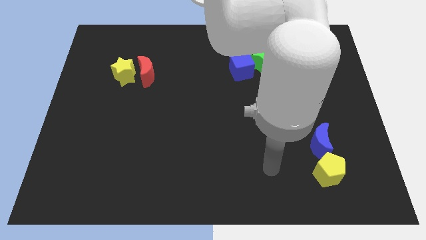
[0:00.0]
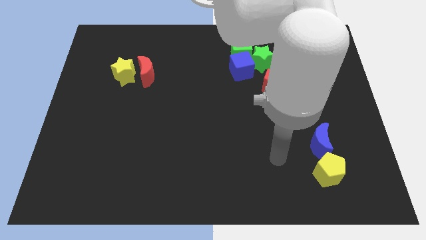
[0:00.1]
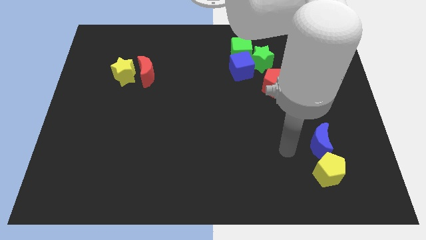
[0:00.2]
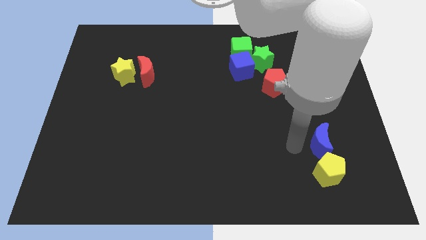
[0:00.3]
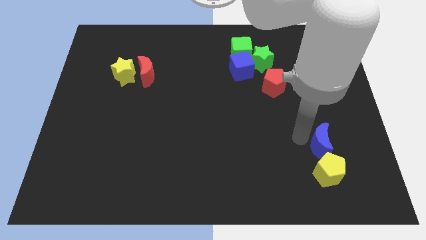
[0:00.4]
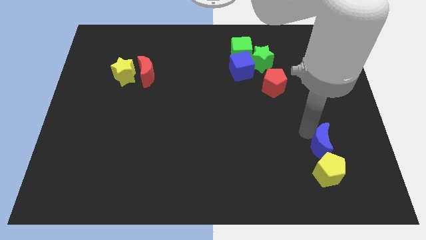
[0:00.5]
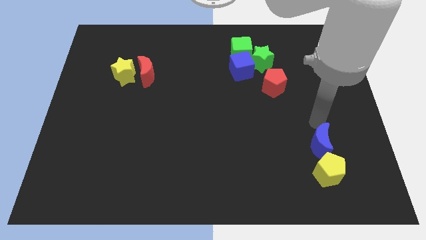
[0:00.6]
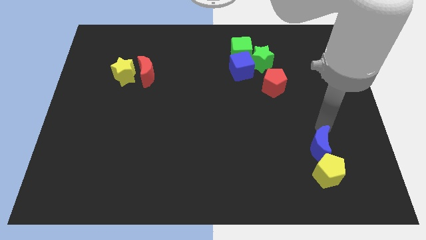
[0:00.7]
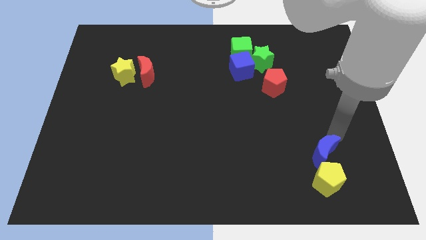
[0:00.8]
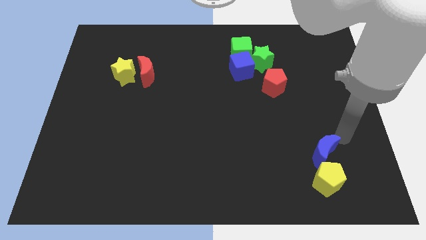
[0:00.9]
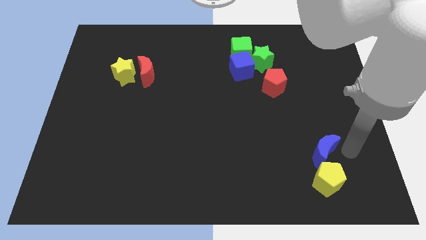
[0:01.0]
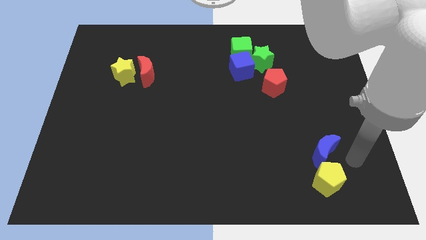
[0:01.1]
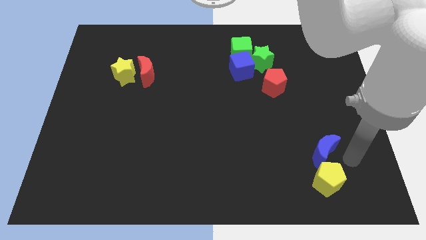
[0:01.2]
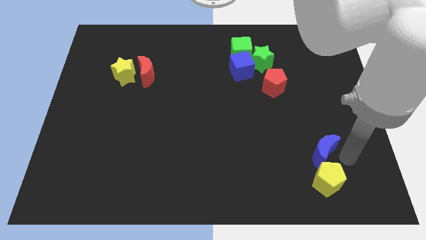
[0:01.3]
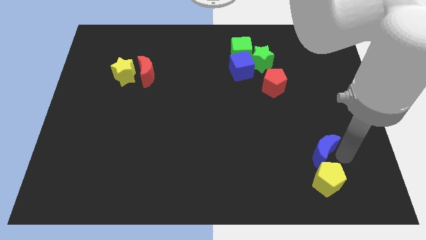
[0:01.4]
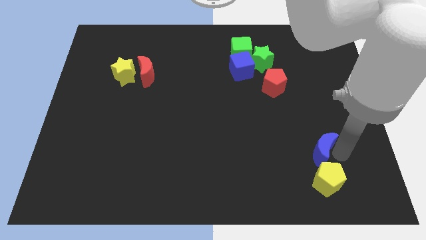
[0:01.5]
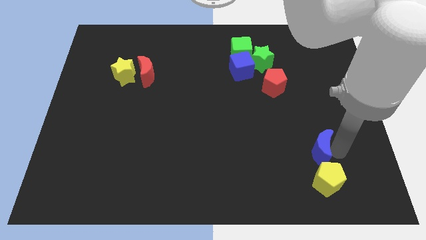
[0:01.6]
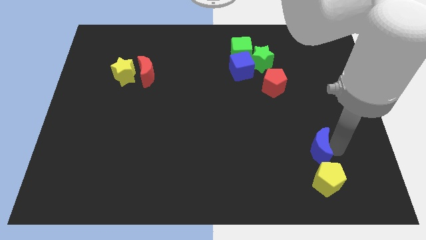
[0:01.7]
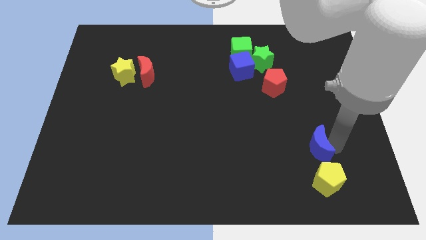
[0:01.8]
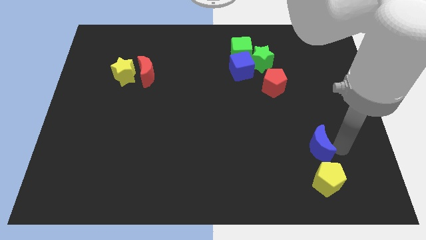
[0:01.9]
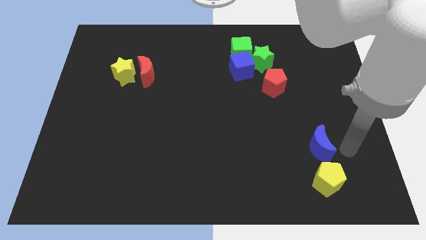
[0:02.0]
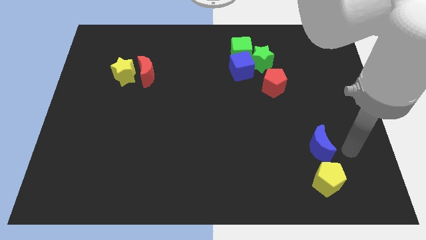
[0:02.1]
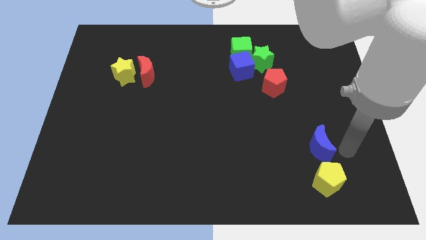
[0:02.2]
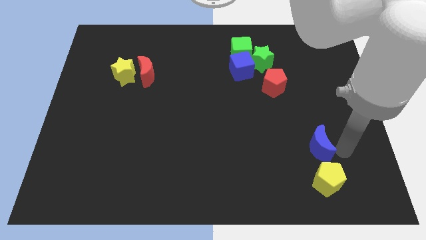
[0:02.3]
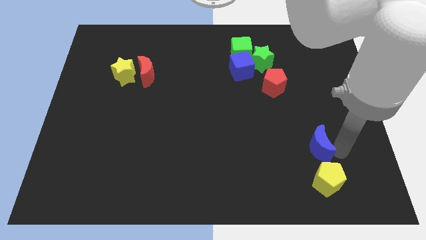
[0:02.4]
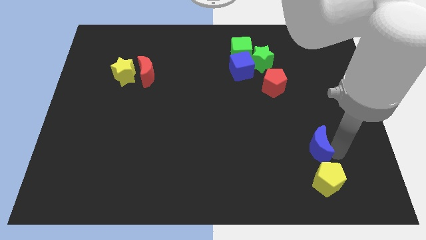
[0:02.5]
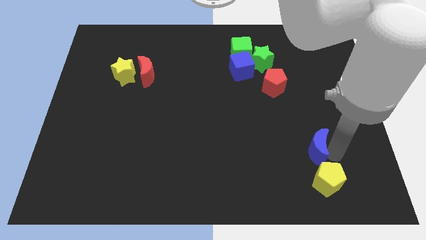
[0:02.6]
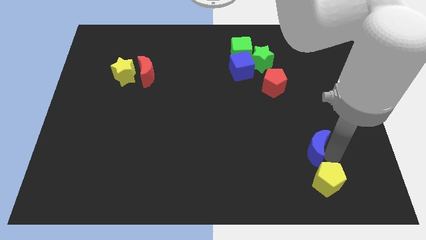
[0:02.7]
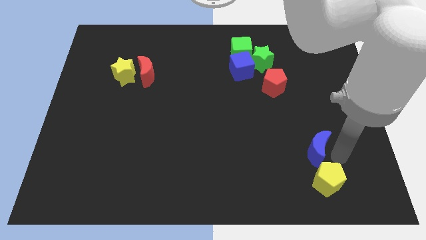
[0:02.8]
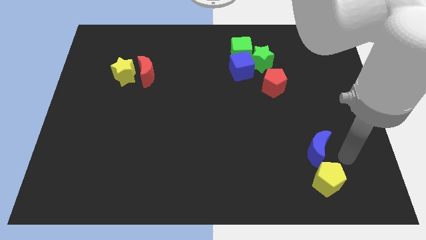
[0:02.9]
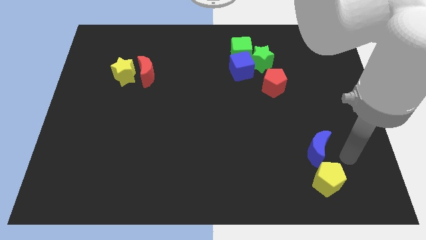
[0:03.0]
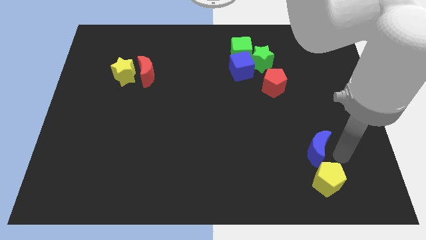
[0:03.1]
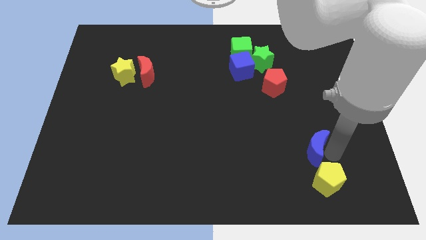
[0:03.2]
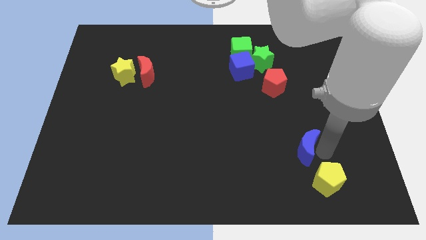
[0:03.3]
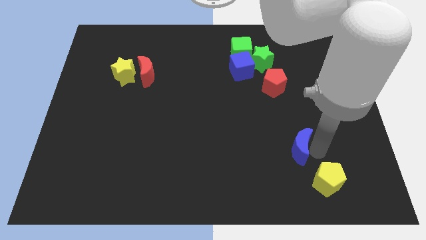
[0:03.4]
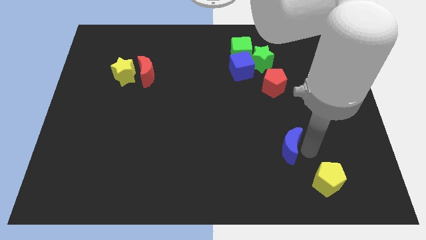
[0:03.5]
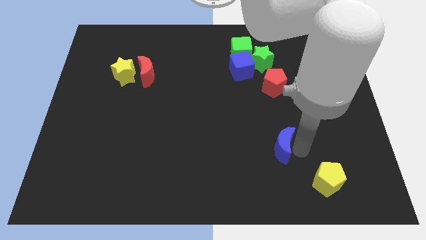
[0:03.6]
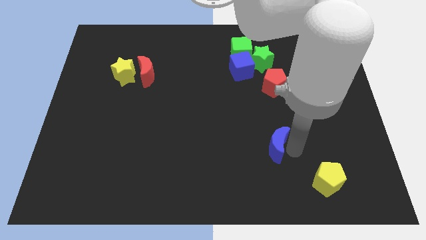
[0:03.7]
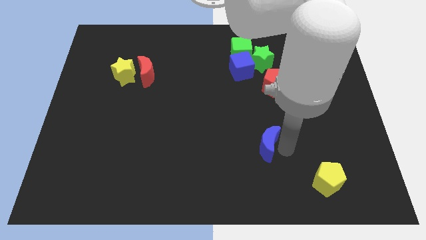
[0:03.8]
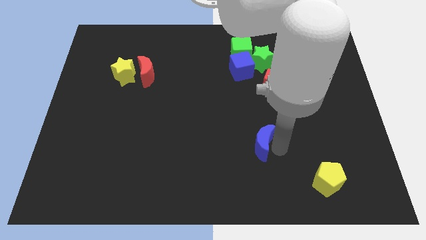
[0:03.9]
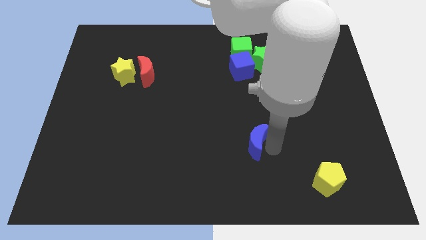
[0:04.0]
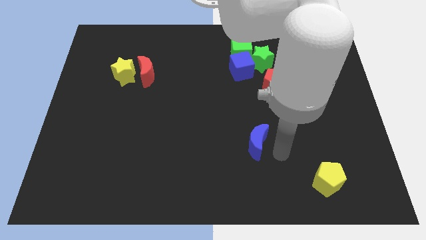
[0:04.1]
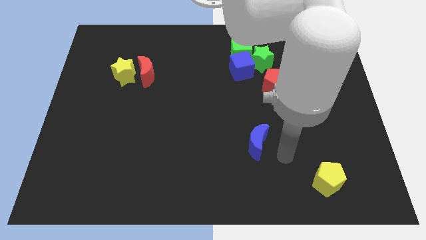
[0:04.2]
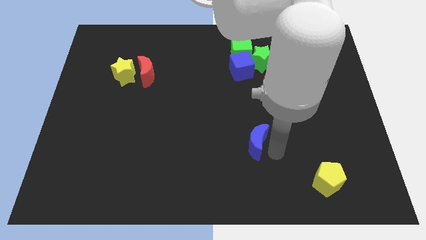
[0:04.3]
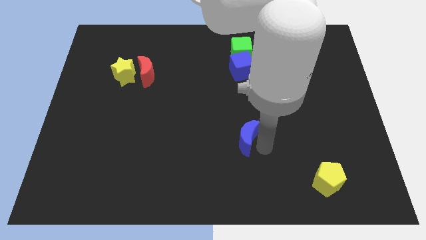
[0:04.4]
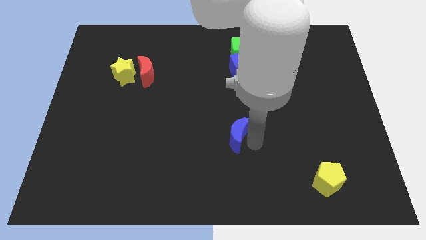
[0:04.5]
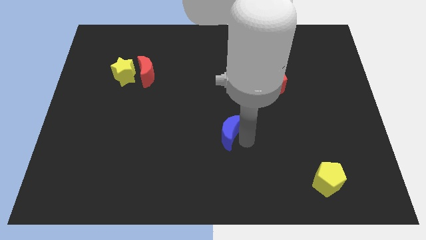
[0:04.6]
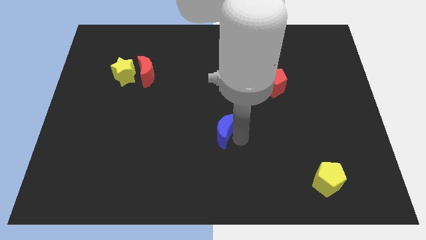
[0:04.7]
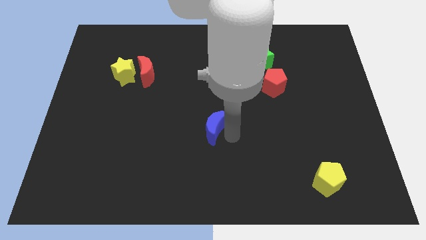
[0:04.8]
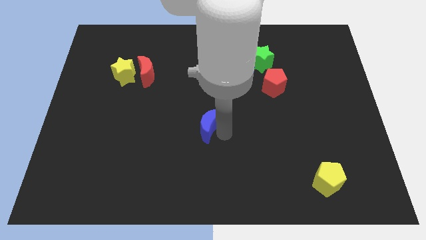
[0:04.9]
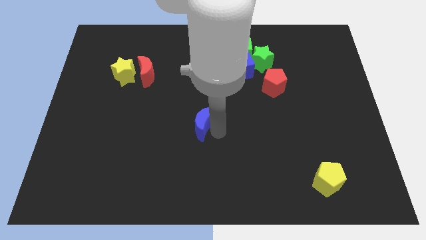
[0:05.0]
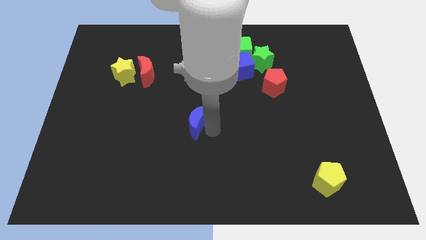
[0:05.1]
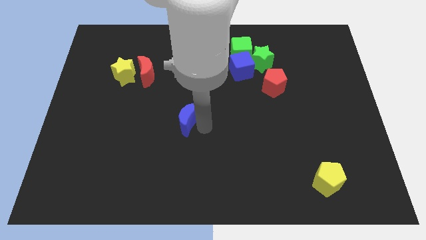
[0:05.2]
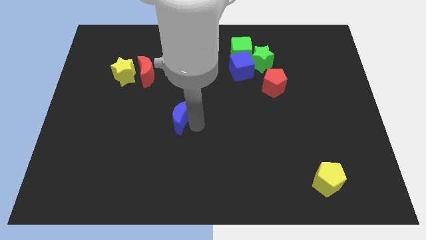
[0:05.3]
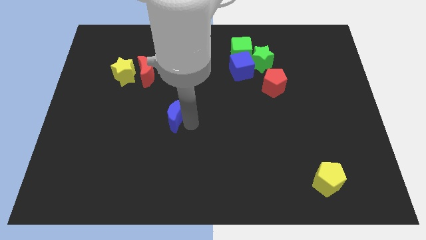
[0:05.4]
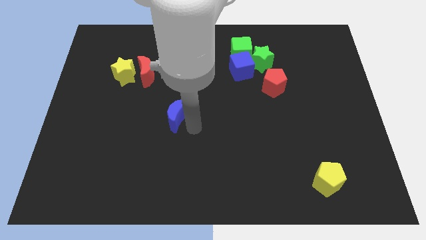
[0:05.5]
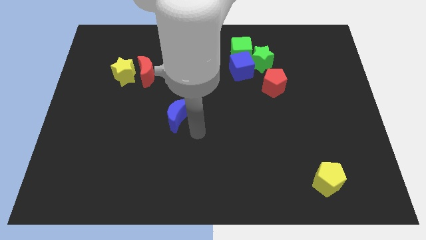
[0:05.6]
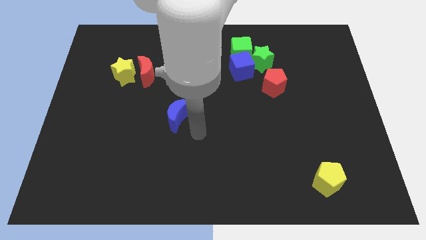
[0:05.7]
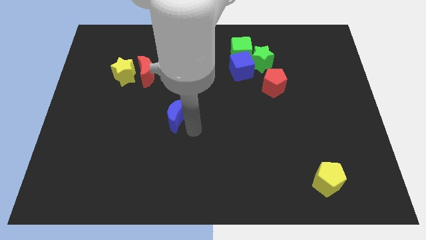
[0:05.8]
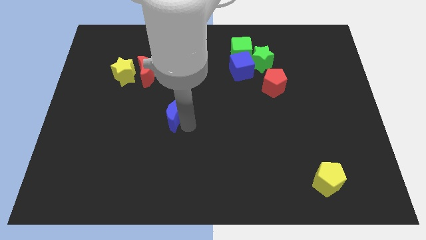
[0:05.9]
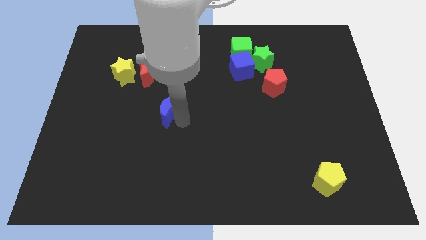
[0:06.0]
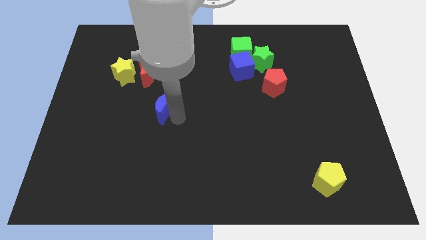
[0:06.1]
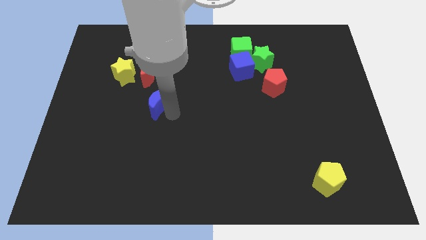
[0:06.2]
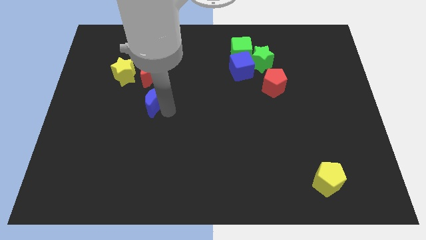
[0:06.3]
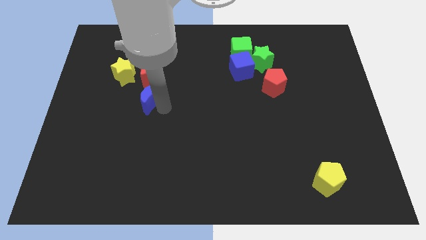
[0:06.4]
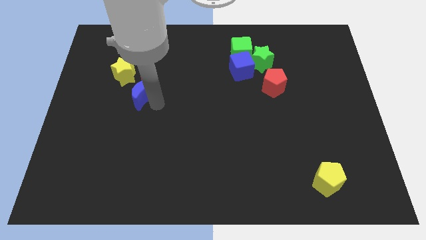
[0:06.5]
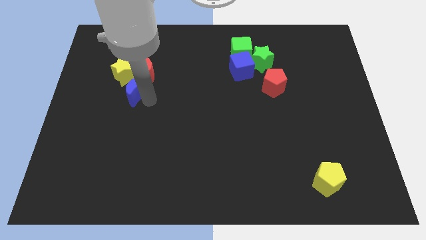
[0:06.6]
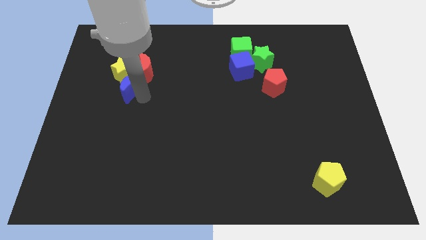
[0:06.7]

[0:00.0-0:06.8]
put the blue moon towards the yellow star

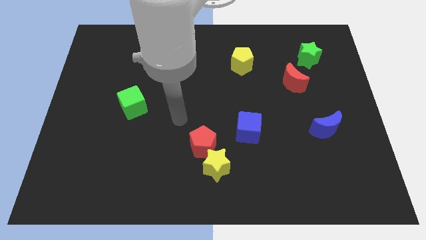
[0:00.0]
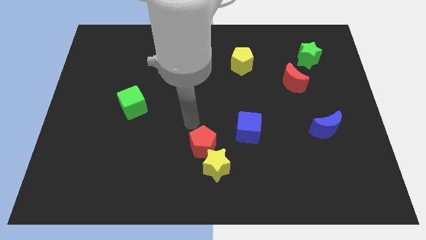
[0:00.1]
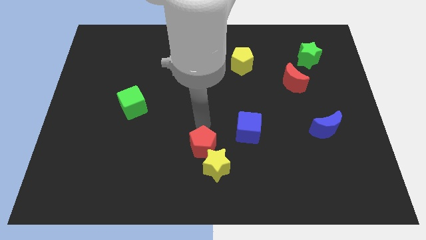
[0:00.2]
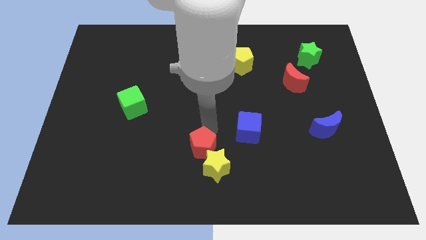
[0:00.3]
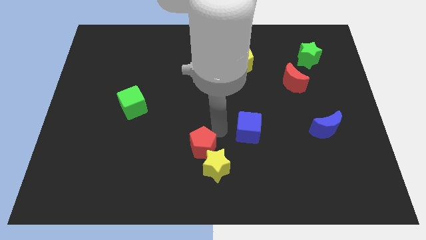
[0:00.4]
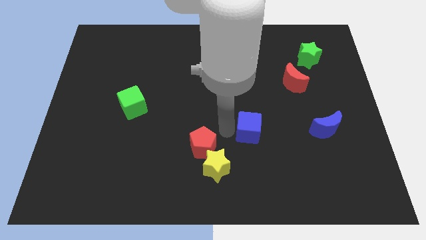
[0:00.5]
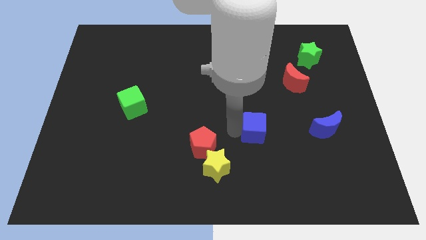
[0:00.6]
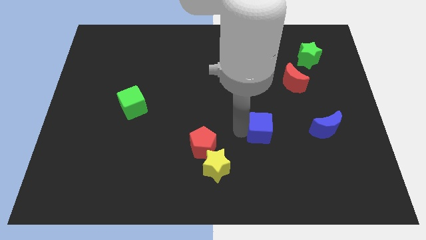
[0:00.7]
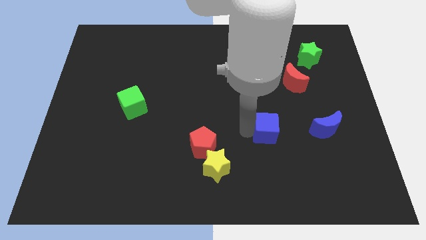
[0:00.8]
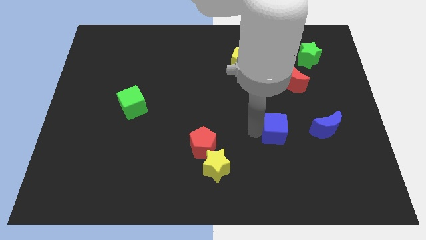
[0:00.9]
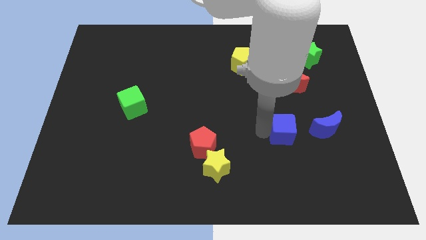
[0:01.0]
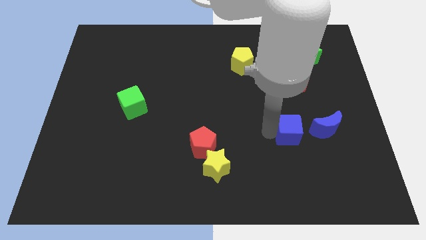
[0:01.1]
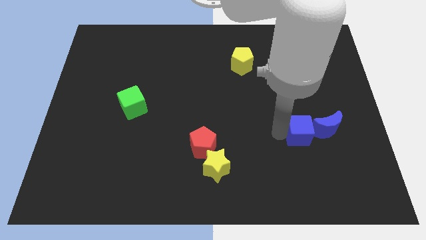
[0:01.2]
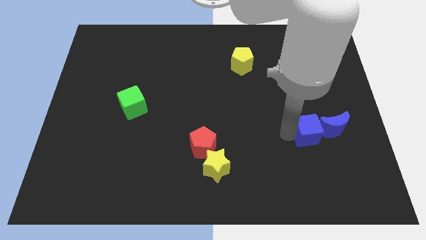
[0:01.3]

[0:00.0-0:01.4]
slide the blue cube close to the blue moon

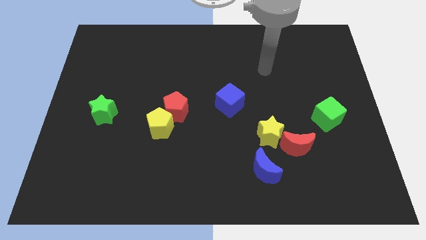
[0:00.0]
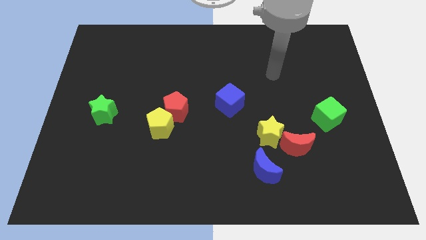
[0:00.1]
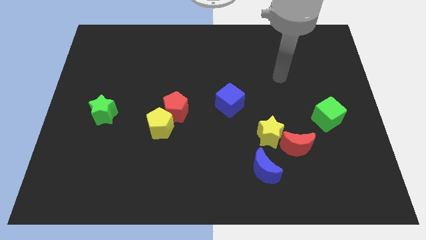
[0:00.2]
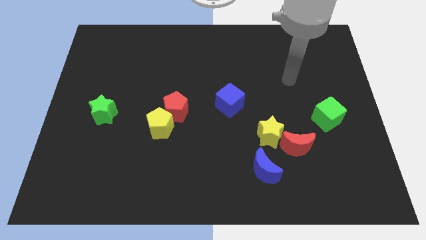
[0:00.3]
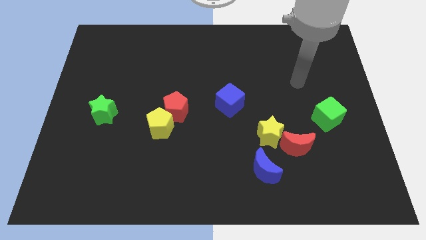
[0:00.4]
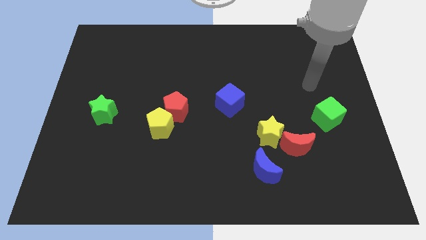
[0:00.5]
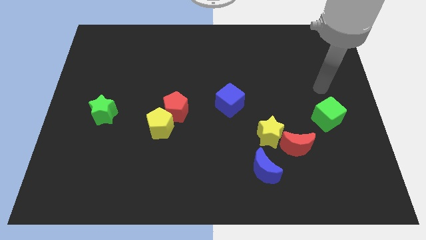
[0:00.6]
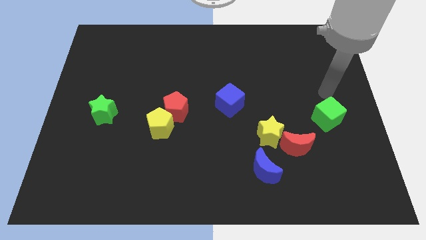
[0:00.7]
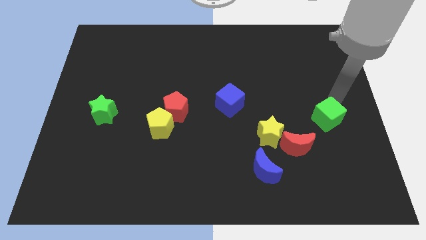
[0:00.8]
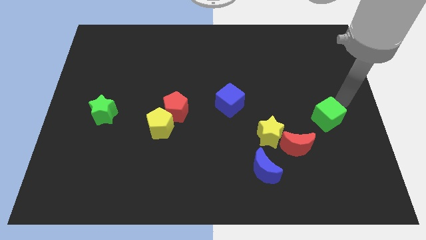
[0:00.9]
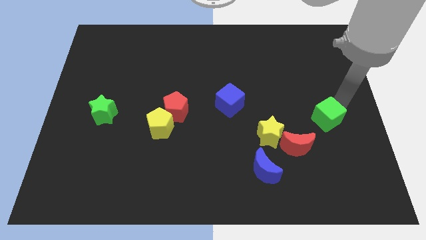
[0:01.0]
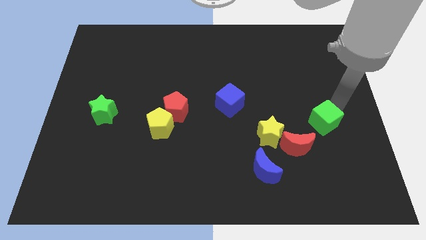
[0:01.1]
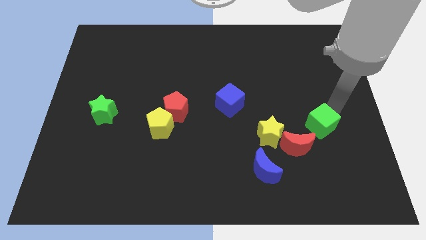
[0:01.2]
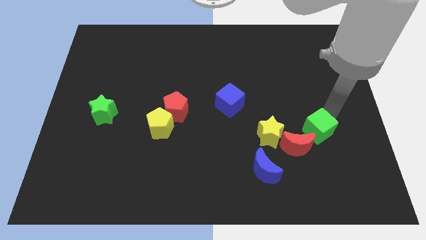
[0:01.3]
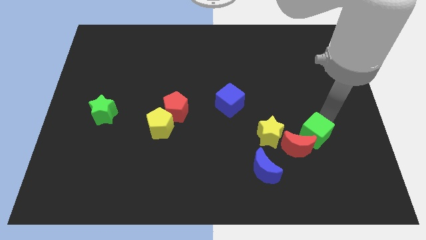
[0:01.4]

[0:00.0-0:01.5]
push the green cube towards the red moon
